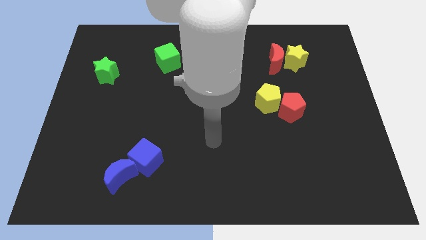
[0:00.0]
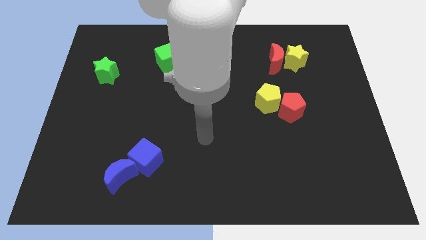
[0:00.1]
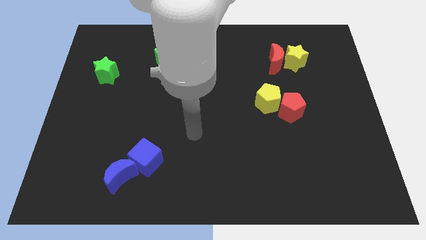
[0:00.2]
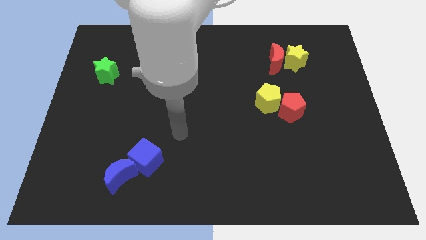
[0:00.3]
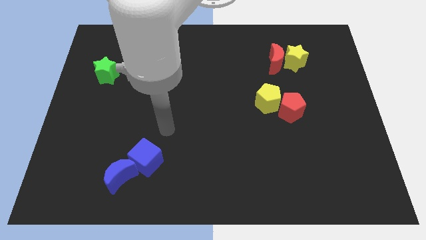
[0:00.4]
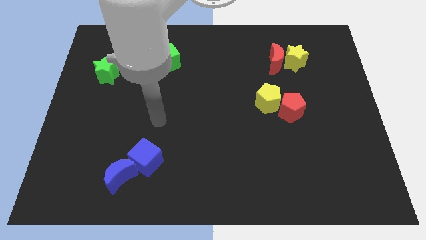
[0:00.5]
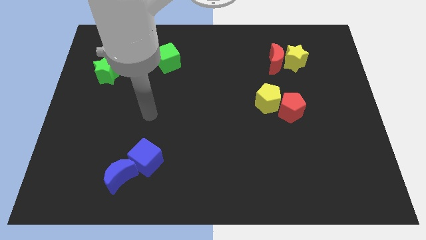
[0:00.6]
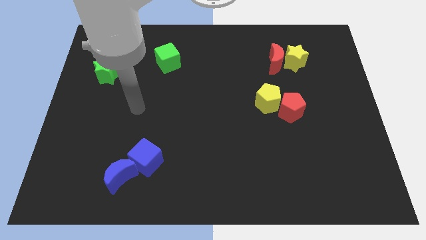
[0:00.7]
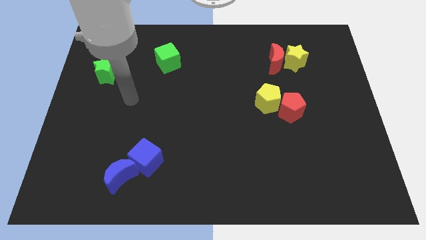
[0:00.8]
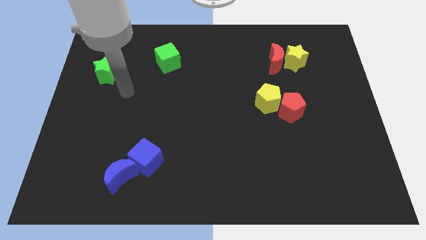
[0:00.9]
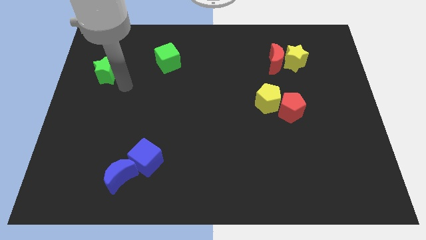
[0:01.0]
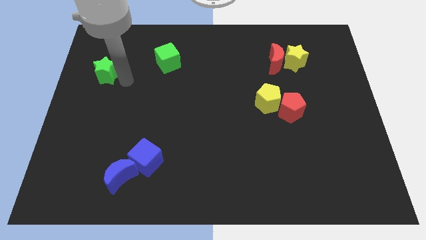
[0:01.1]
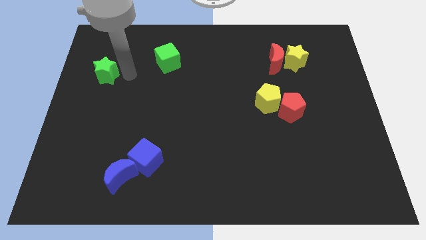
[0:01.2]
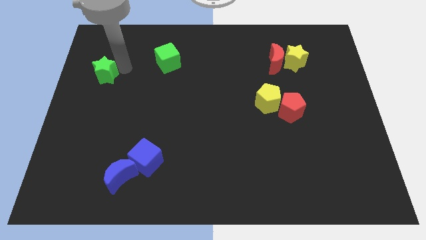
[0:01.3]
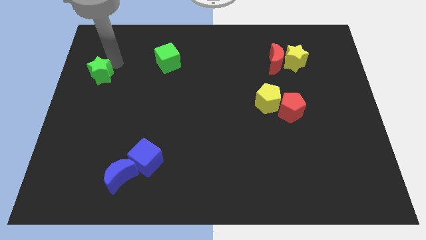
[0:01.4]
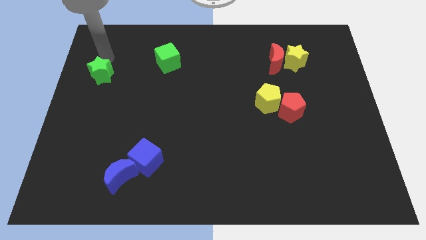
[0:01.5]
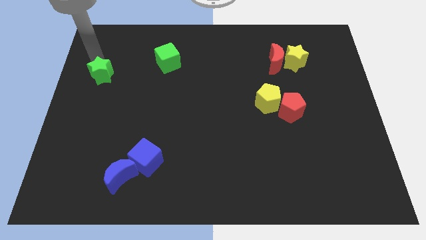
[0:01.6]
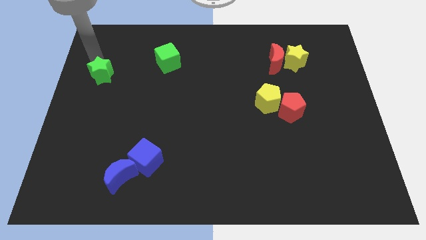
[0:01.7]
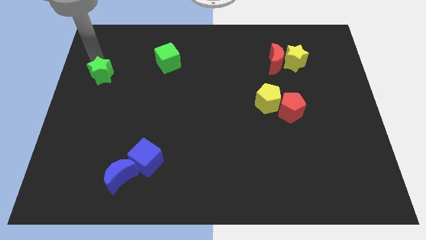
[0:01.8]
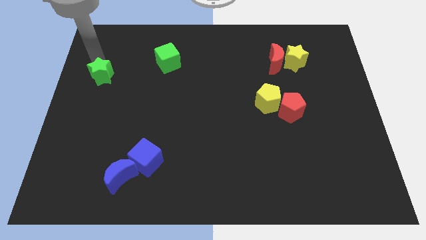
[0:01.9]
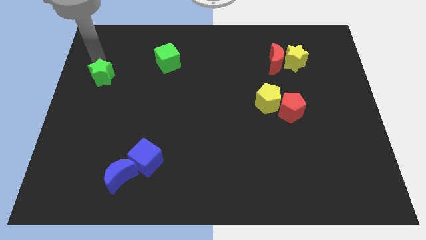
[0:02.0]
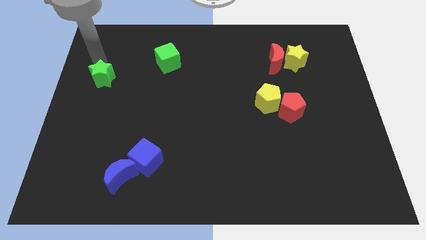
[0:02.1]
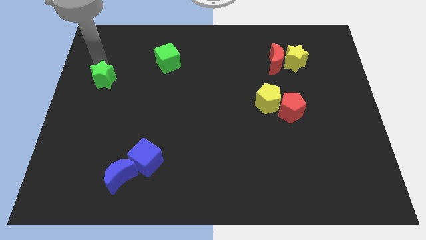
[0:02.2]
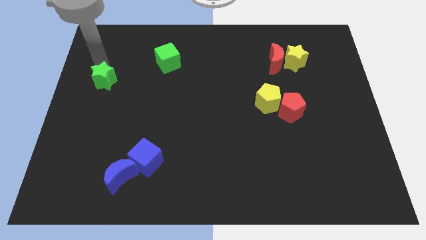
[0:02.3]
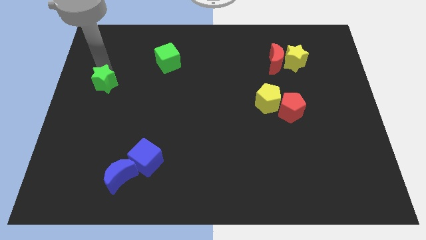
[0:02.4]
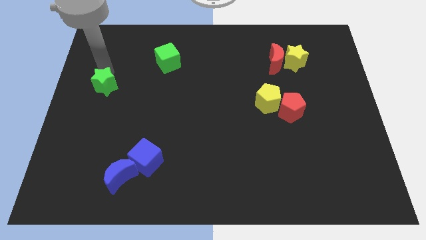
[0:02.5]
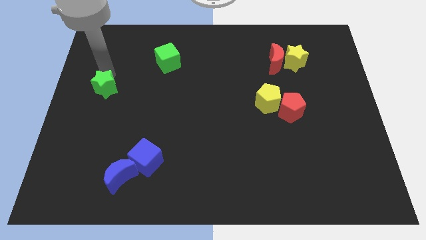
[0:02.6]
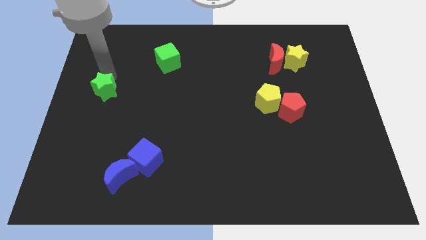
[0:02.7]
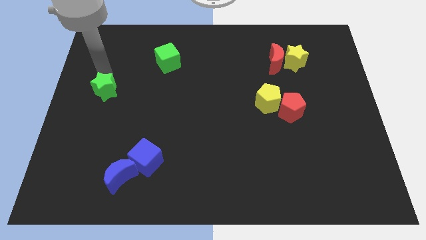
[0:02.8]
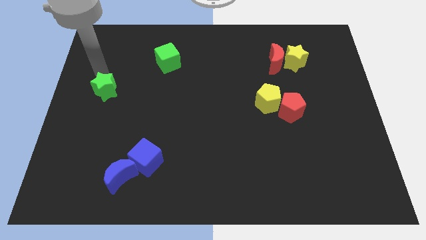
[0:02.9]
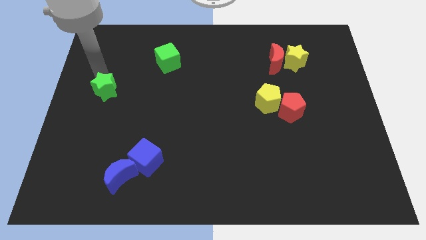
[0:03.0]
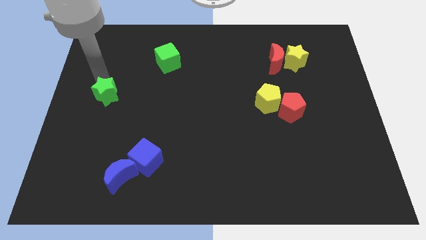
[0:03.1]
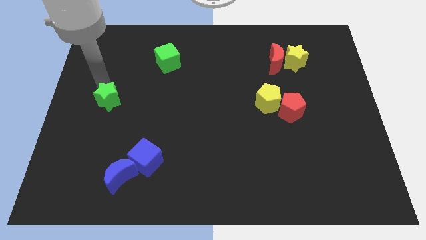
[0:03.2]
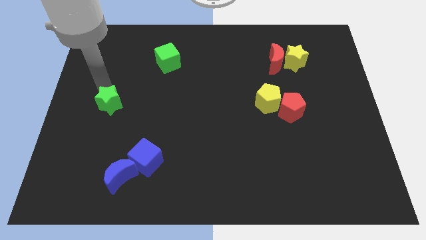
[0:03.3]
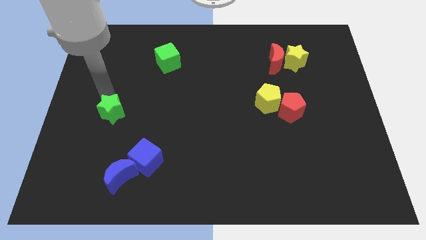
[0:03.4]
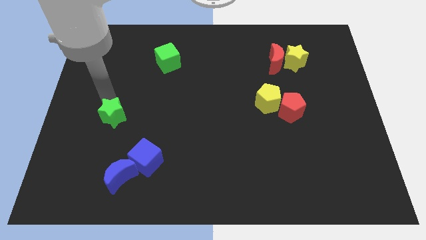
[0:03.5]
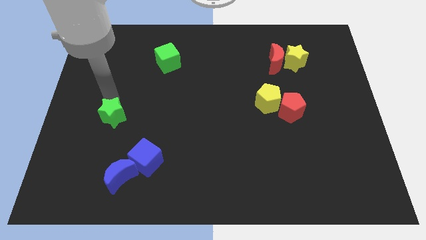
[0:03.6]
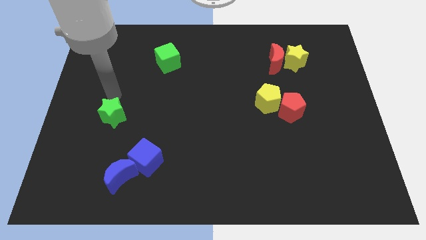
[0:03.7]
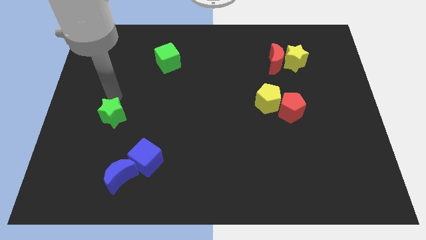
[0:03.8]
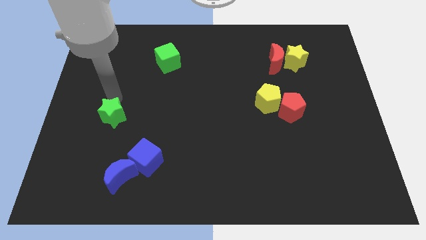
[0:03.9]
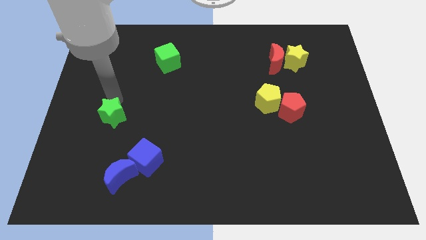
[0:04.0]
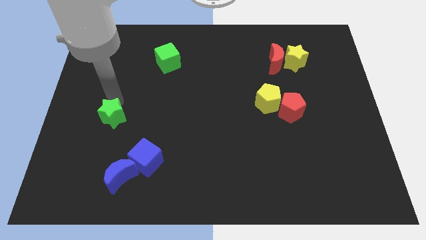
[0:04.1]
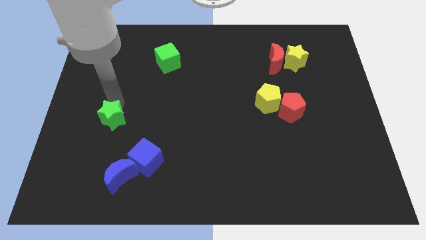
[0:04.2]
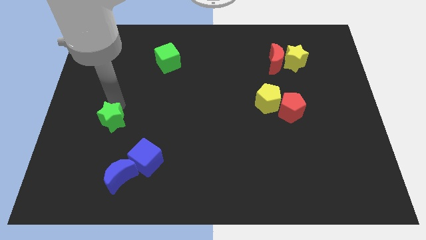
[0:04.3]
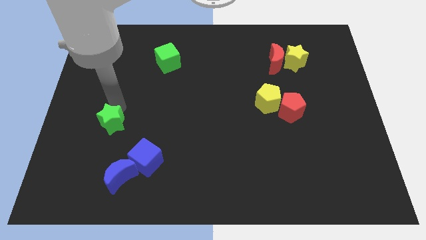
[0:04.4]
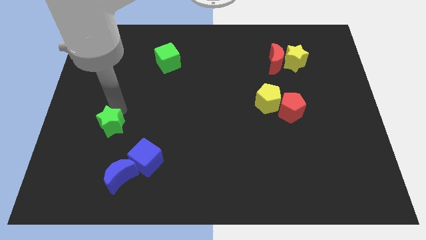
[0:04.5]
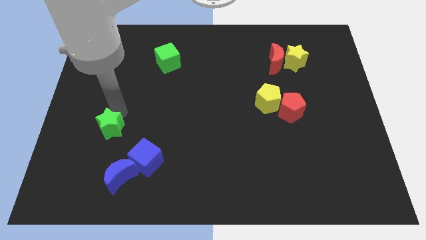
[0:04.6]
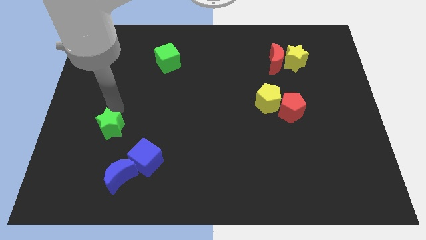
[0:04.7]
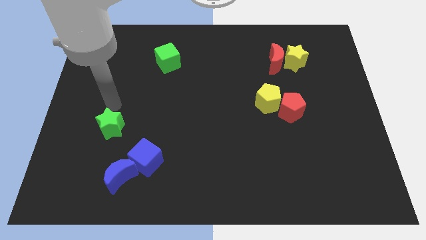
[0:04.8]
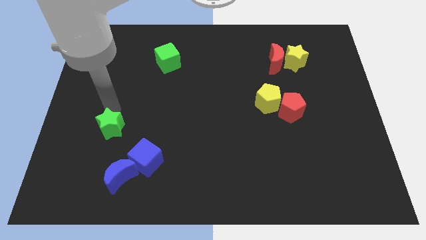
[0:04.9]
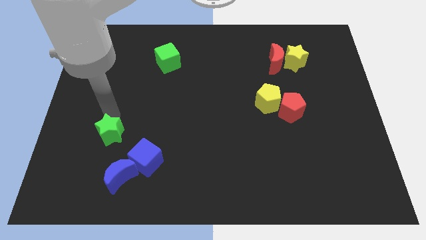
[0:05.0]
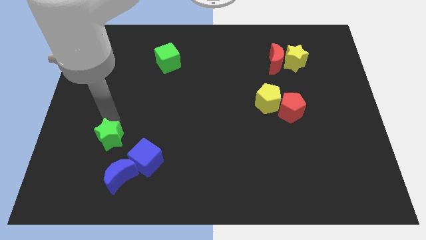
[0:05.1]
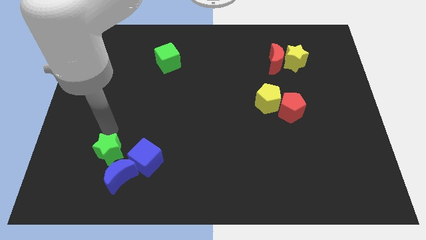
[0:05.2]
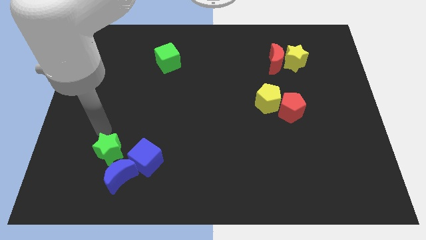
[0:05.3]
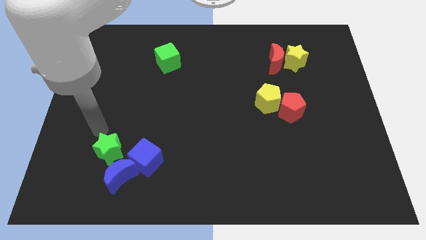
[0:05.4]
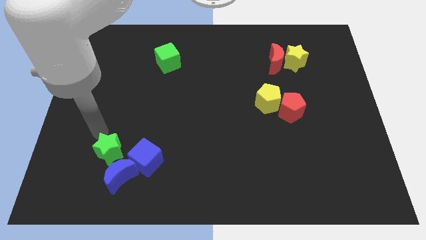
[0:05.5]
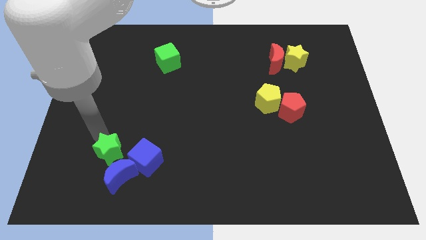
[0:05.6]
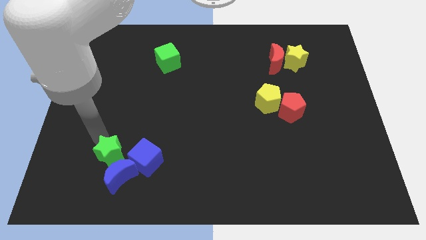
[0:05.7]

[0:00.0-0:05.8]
slide the green star to the blue moon

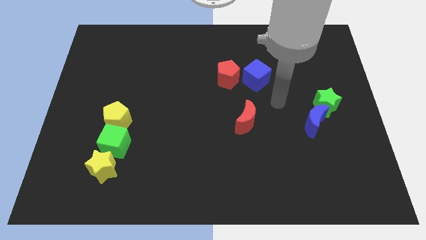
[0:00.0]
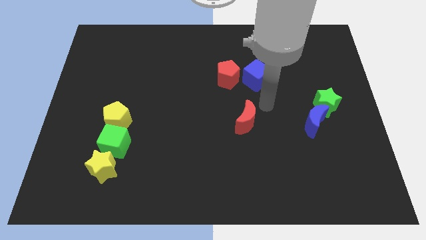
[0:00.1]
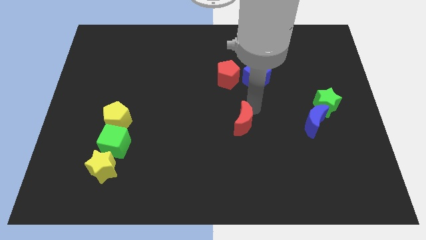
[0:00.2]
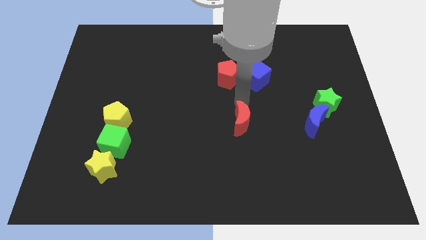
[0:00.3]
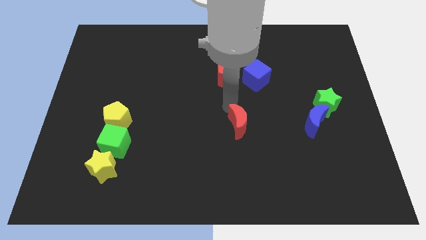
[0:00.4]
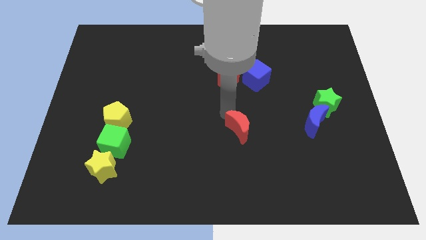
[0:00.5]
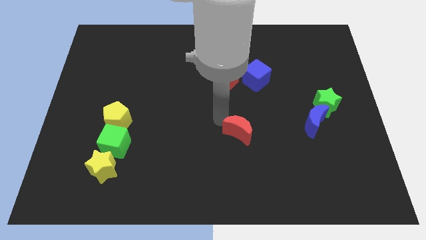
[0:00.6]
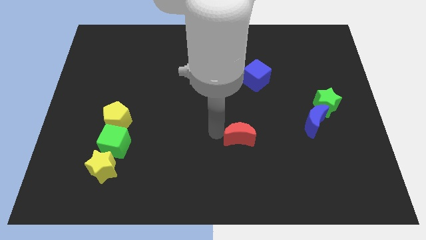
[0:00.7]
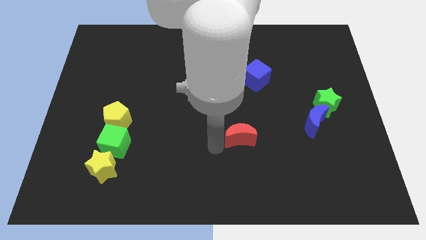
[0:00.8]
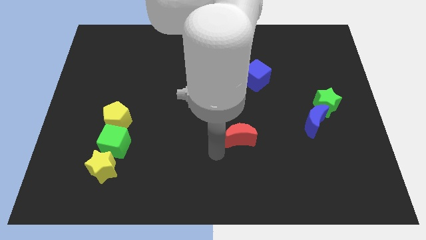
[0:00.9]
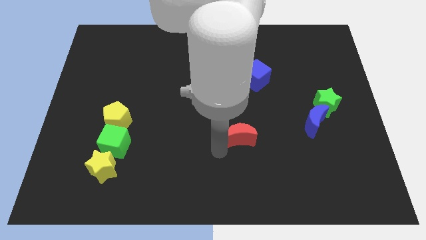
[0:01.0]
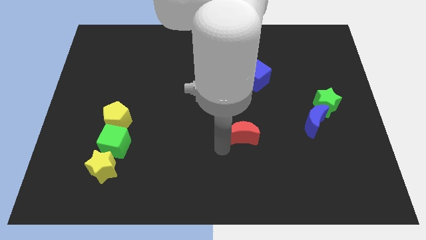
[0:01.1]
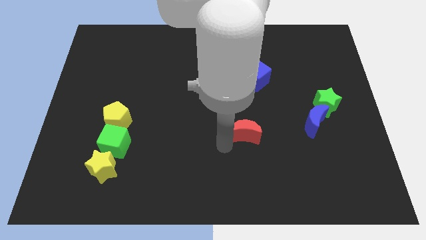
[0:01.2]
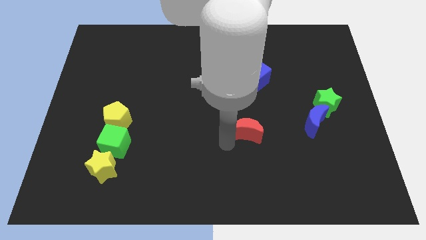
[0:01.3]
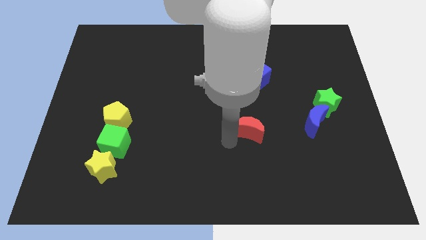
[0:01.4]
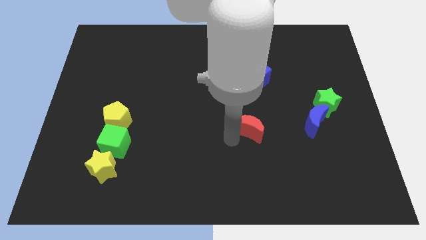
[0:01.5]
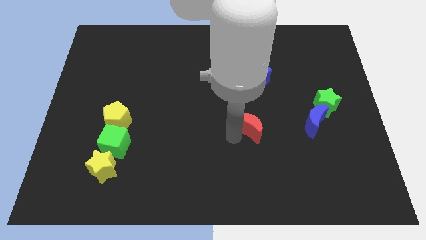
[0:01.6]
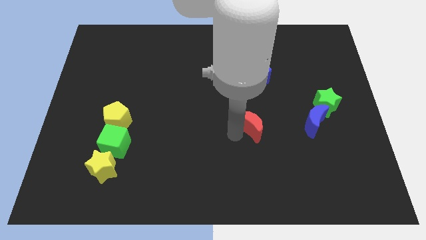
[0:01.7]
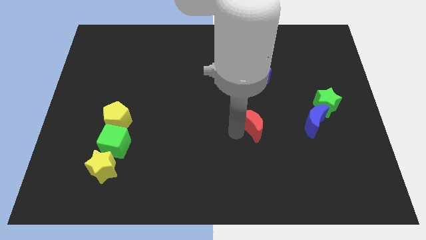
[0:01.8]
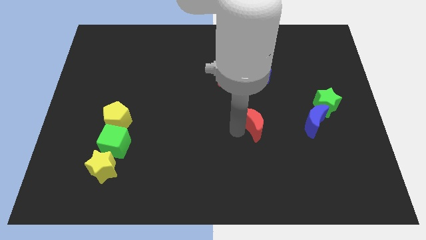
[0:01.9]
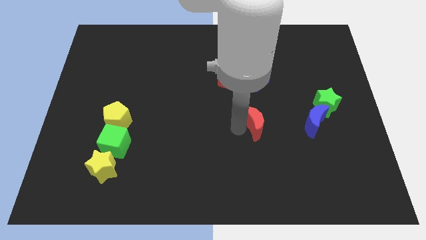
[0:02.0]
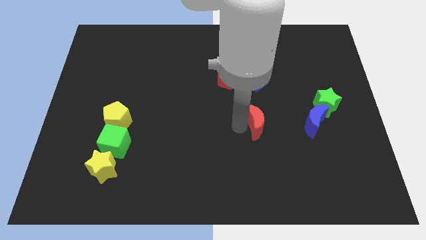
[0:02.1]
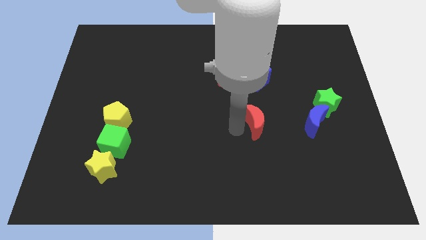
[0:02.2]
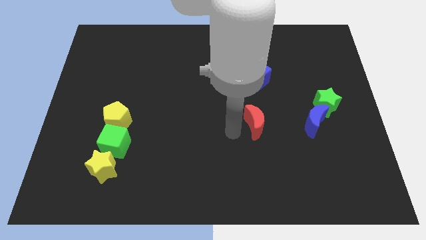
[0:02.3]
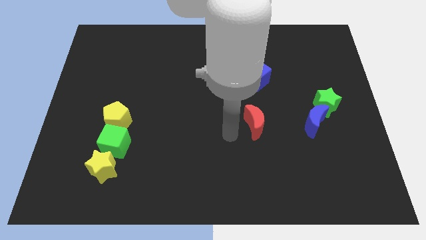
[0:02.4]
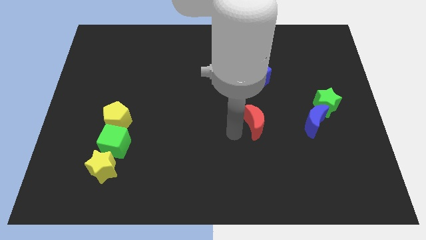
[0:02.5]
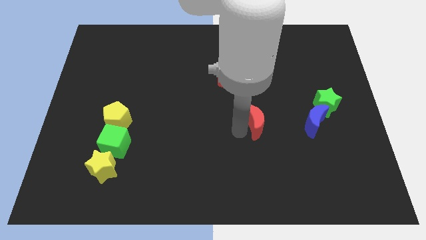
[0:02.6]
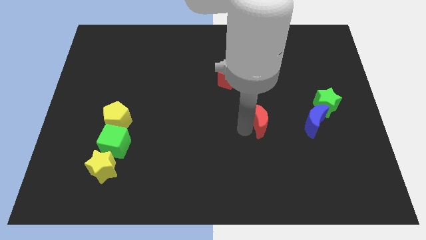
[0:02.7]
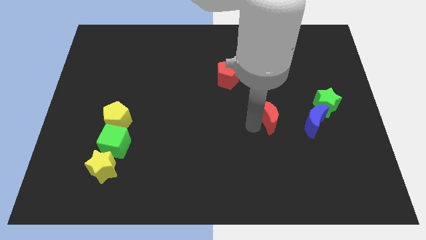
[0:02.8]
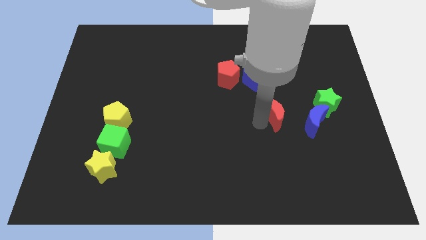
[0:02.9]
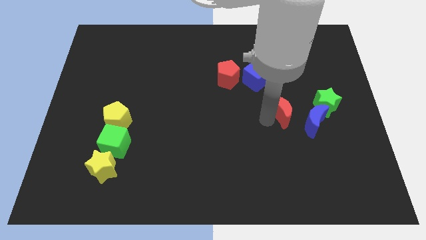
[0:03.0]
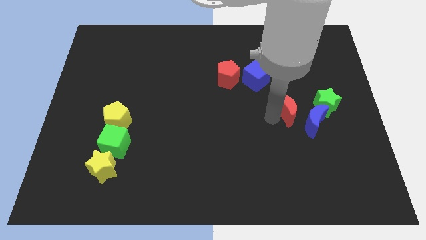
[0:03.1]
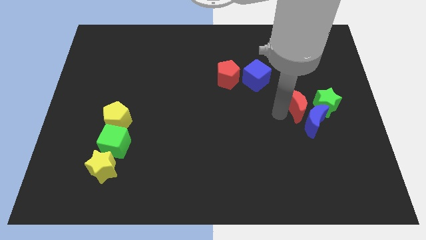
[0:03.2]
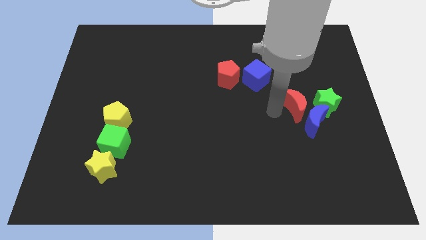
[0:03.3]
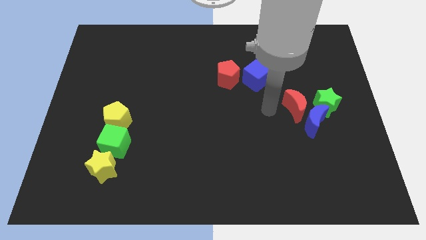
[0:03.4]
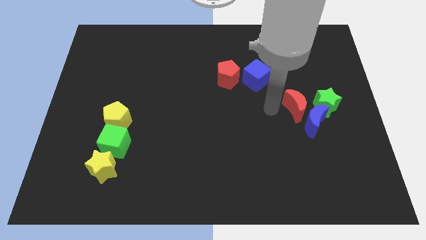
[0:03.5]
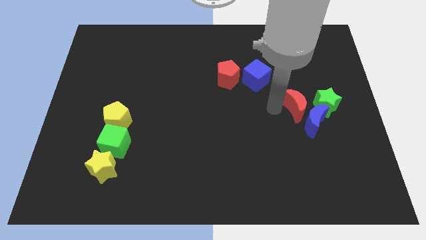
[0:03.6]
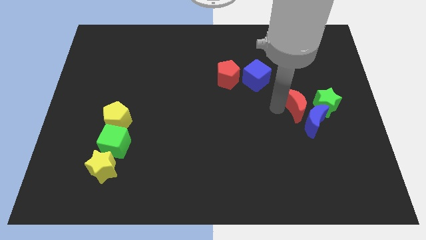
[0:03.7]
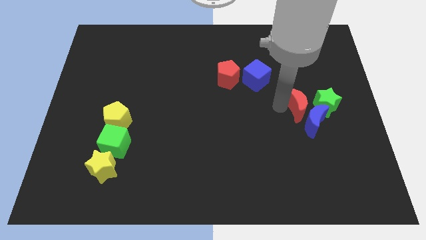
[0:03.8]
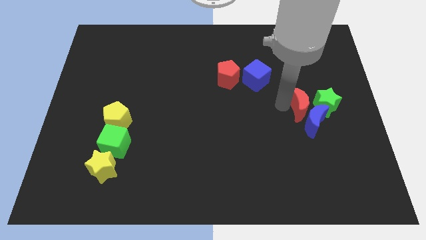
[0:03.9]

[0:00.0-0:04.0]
push the red moon towards the green star
